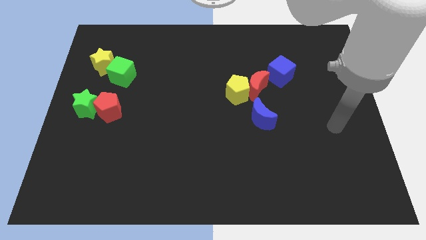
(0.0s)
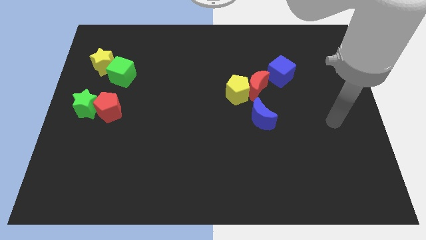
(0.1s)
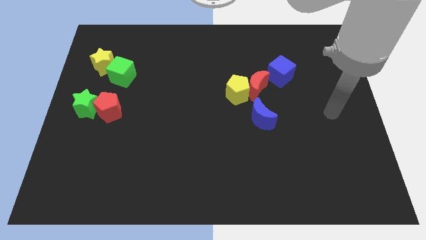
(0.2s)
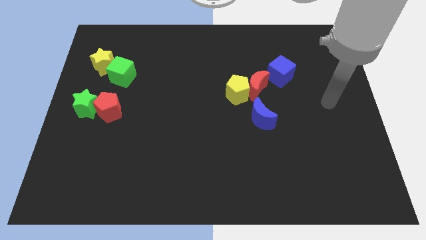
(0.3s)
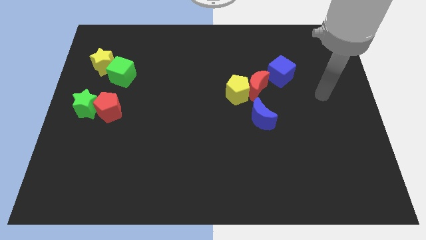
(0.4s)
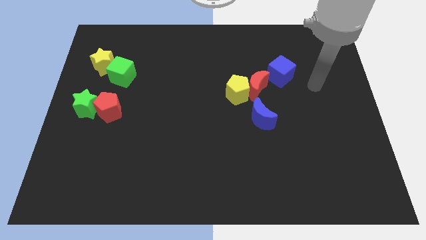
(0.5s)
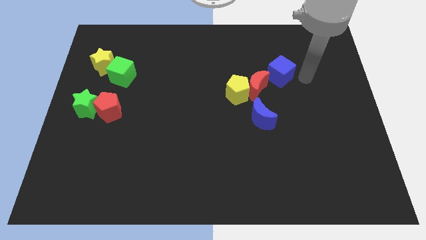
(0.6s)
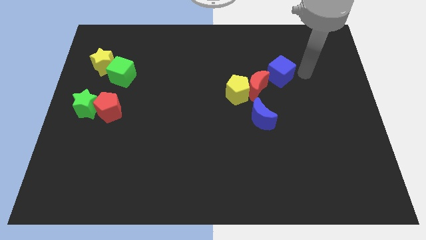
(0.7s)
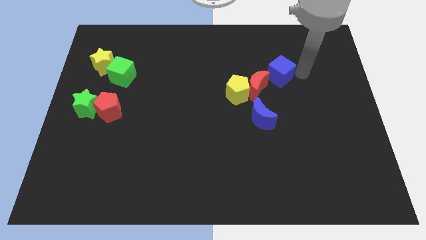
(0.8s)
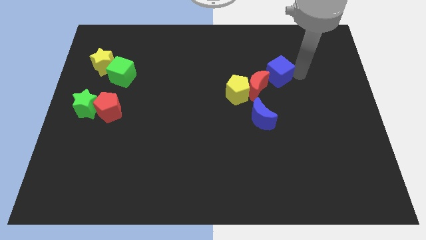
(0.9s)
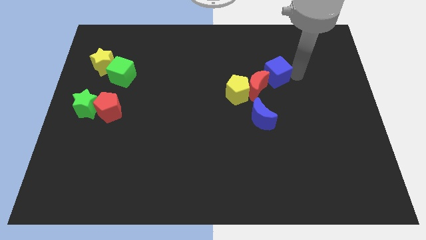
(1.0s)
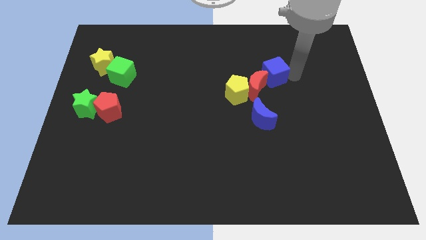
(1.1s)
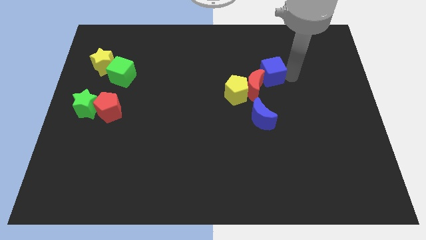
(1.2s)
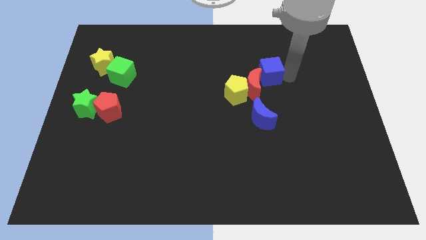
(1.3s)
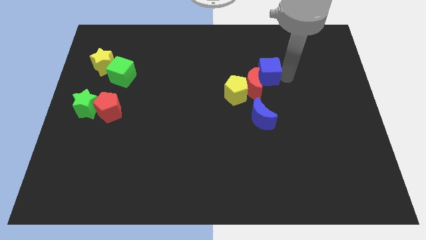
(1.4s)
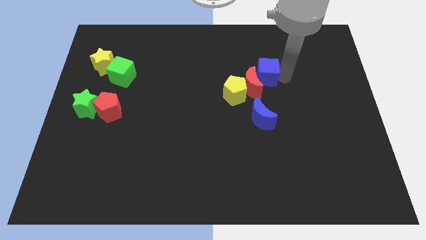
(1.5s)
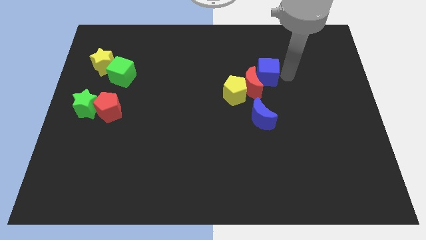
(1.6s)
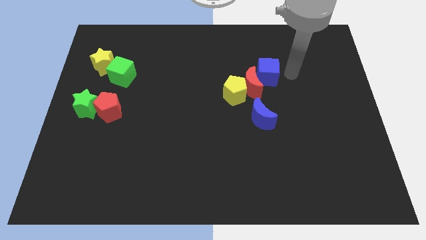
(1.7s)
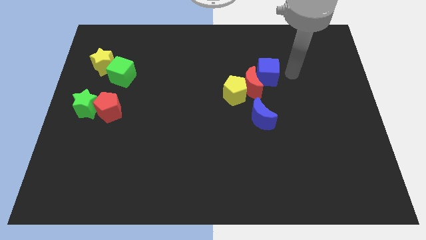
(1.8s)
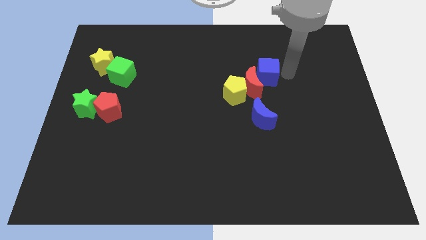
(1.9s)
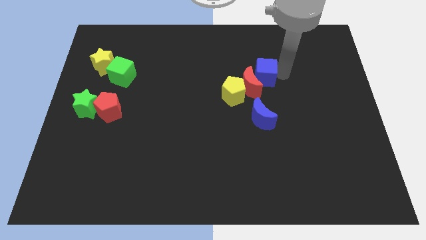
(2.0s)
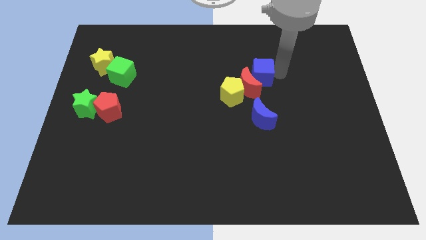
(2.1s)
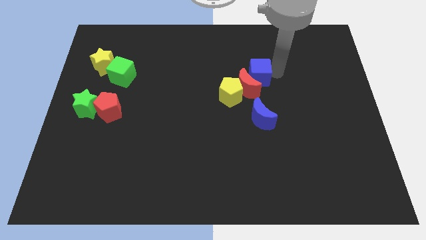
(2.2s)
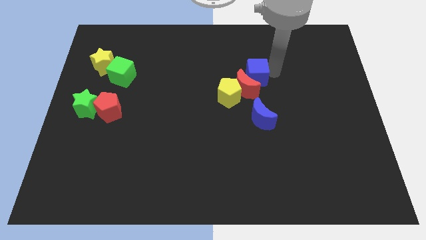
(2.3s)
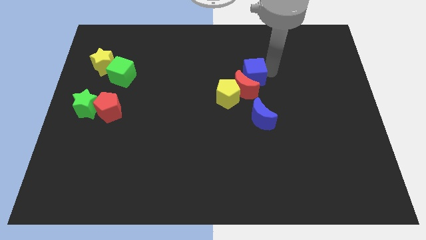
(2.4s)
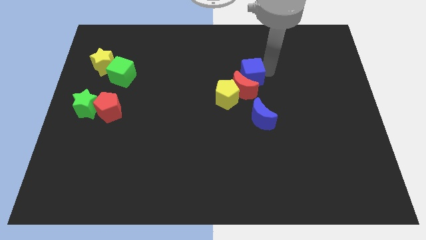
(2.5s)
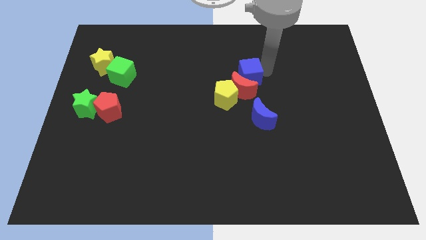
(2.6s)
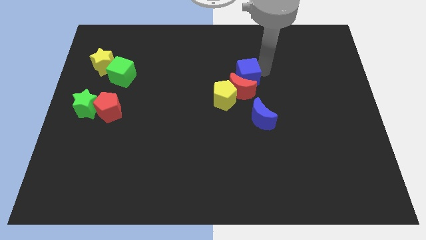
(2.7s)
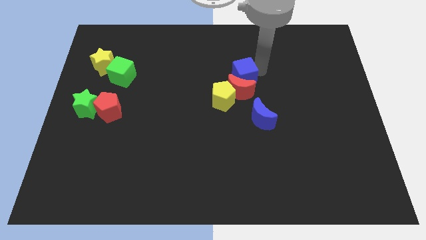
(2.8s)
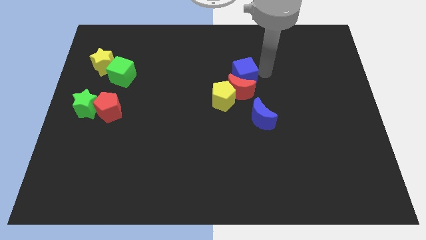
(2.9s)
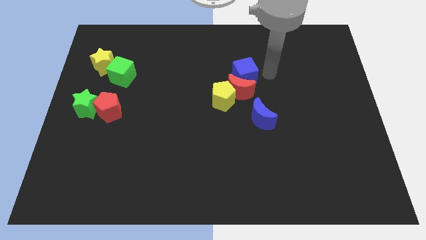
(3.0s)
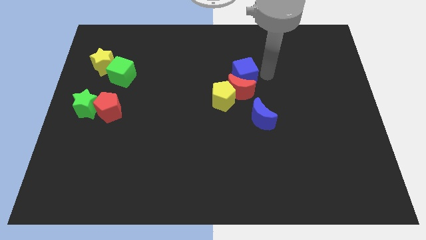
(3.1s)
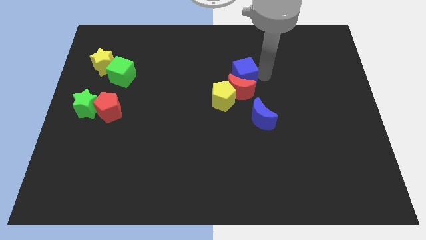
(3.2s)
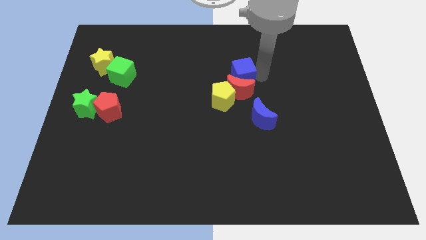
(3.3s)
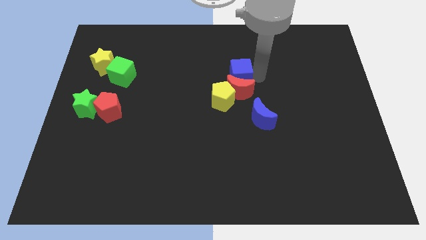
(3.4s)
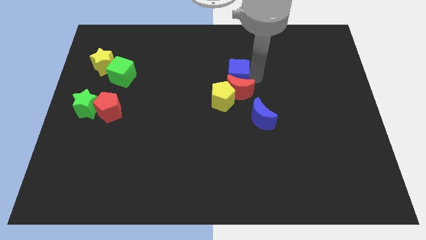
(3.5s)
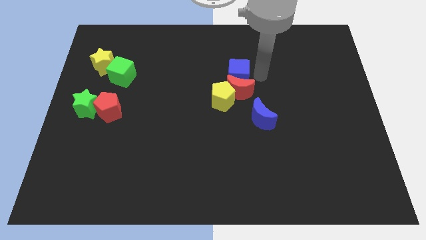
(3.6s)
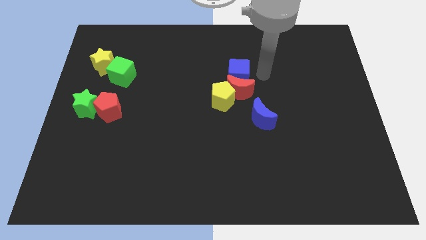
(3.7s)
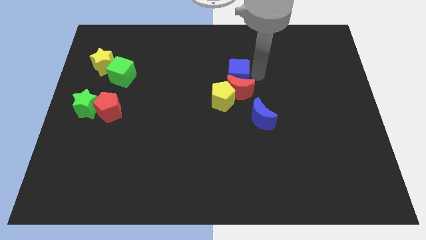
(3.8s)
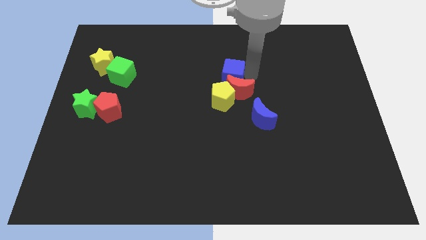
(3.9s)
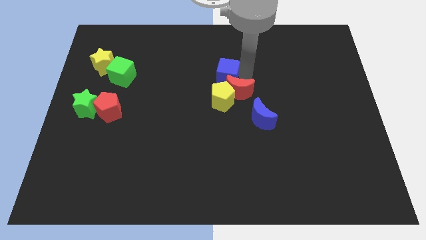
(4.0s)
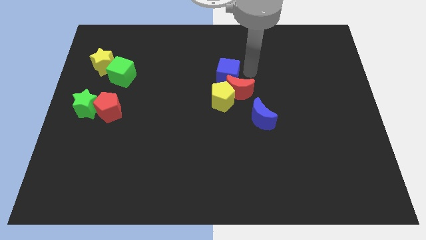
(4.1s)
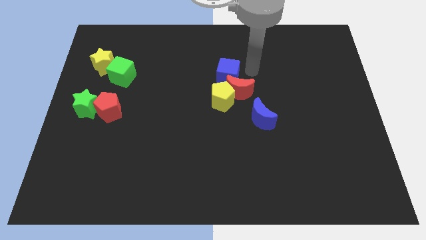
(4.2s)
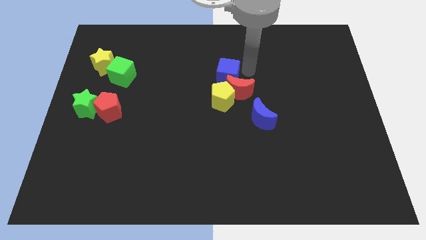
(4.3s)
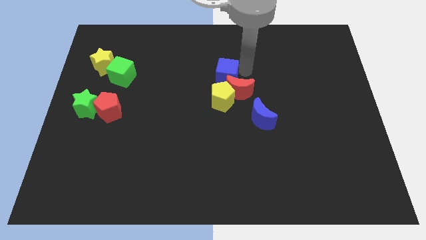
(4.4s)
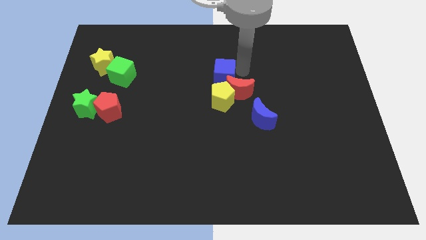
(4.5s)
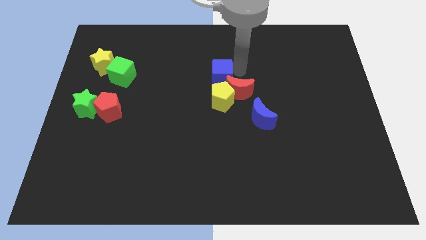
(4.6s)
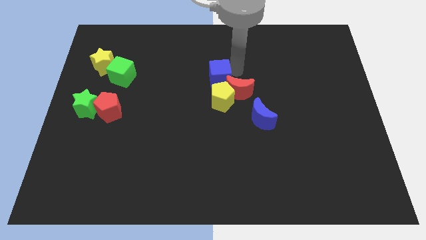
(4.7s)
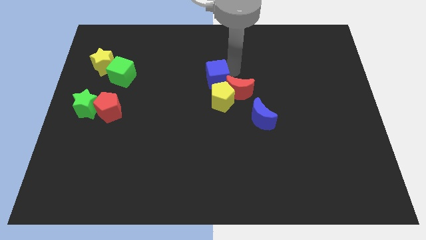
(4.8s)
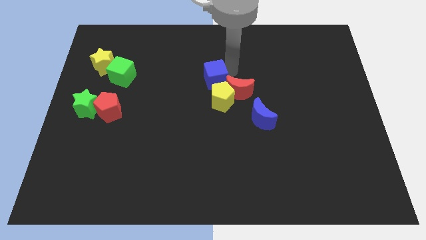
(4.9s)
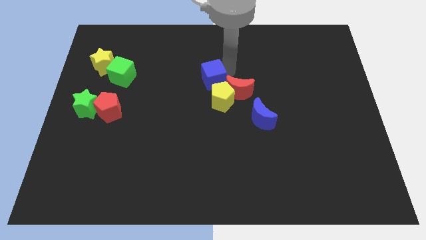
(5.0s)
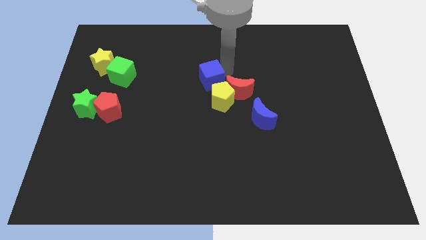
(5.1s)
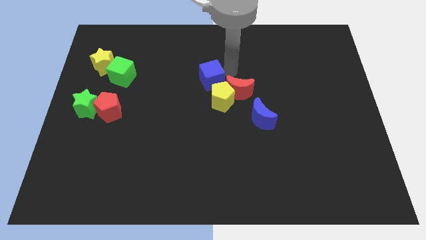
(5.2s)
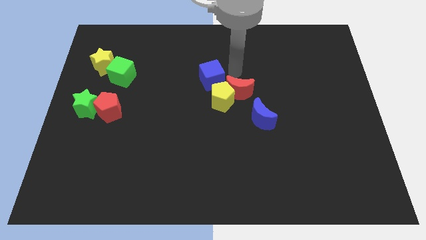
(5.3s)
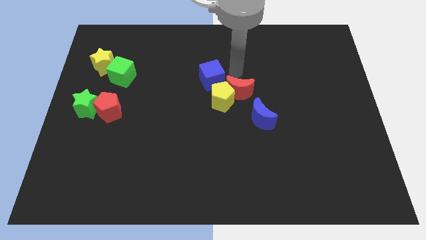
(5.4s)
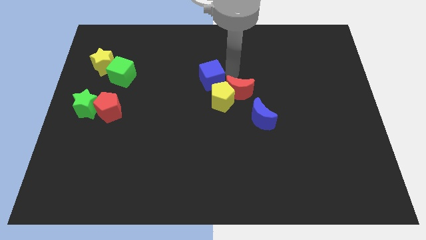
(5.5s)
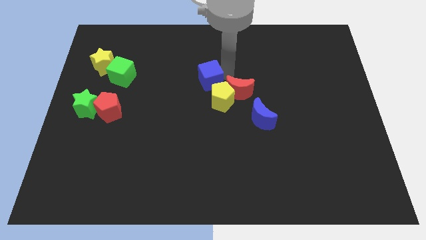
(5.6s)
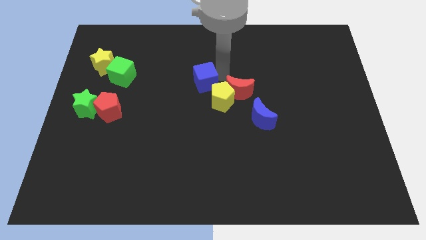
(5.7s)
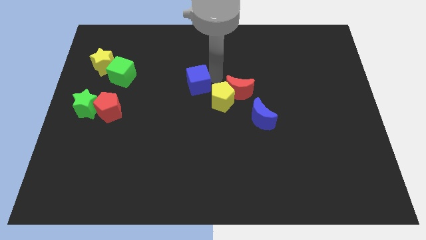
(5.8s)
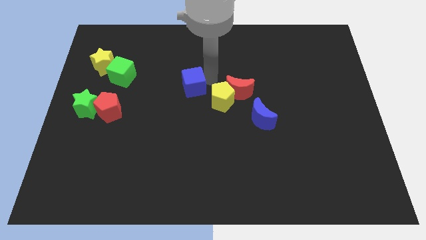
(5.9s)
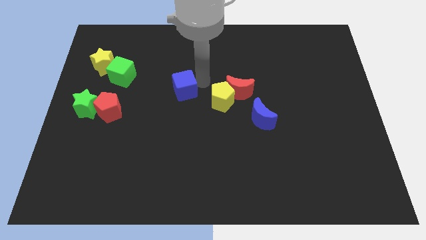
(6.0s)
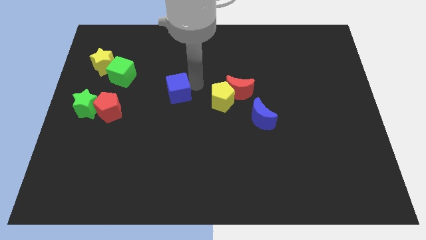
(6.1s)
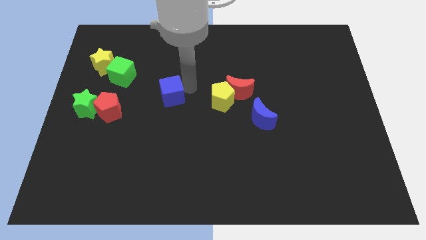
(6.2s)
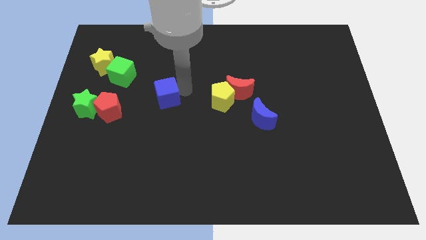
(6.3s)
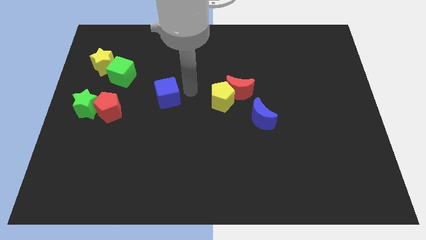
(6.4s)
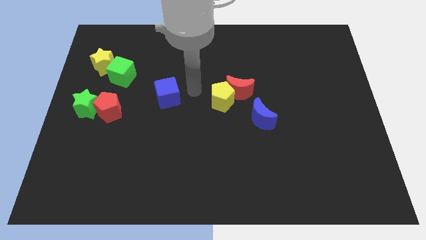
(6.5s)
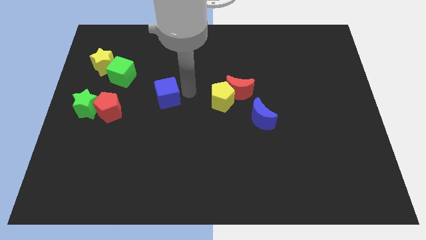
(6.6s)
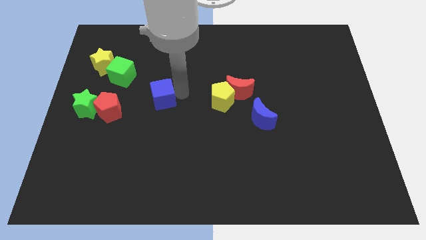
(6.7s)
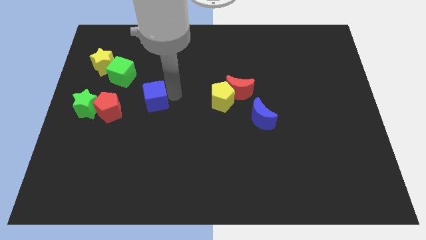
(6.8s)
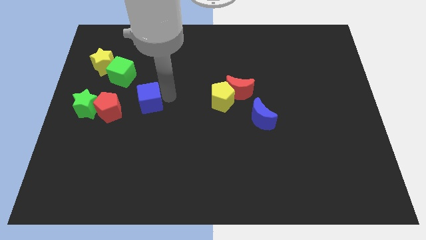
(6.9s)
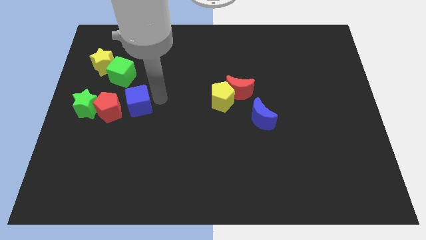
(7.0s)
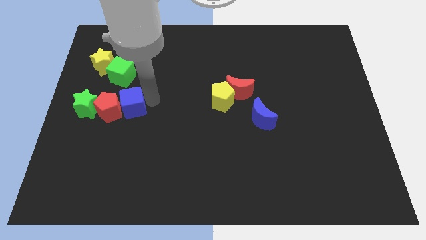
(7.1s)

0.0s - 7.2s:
push the blue cube close to the red pentagon
